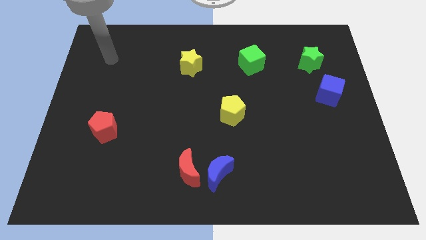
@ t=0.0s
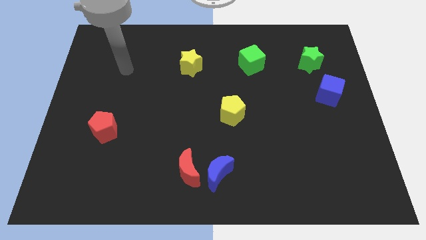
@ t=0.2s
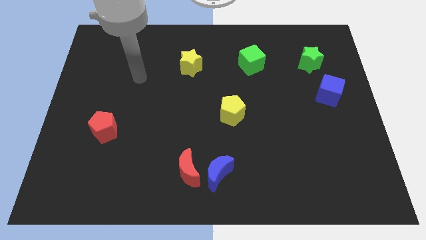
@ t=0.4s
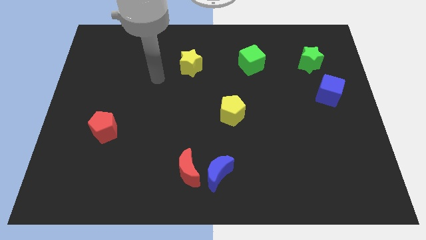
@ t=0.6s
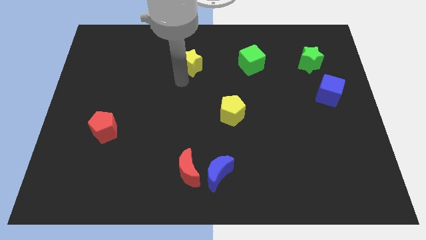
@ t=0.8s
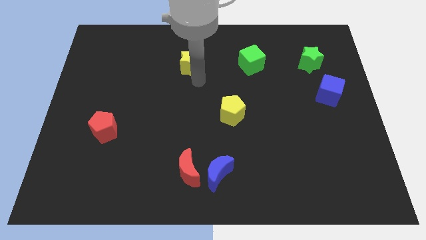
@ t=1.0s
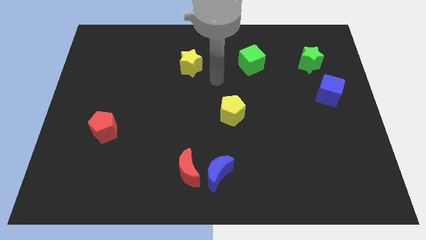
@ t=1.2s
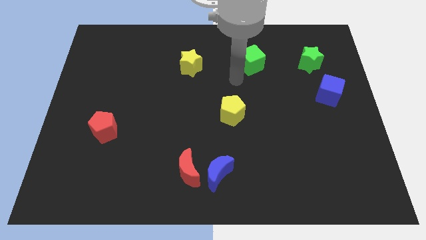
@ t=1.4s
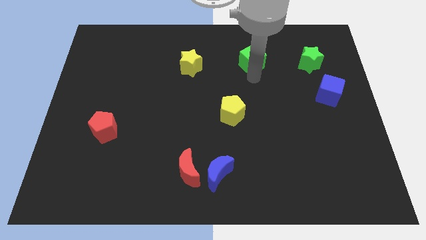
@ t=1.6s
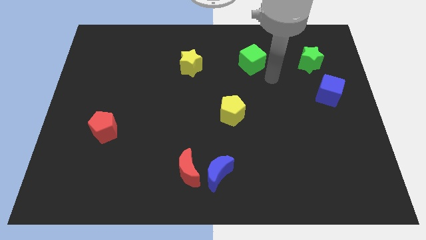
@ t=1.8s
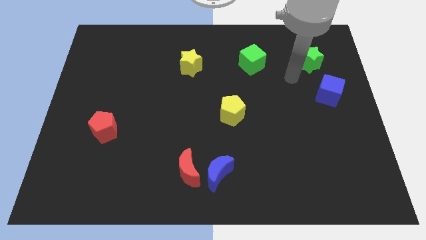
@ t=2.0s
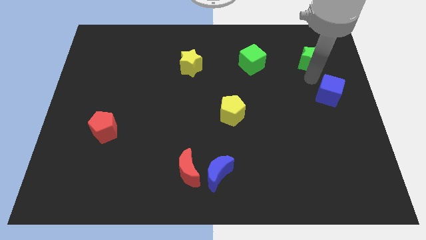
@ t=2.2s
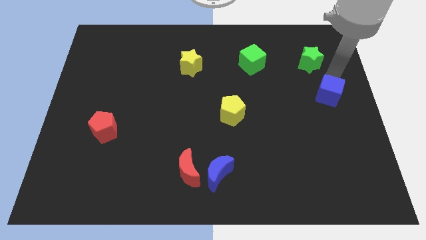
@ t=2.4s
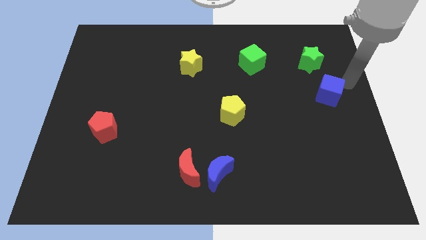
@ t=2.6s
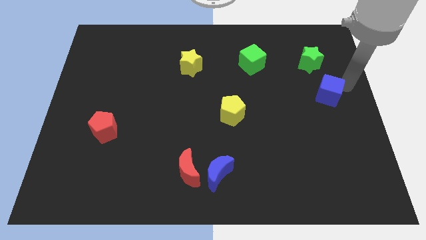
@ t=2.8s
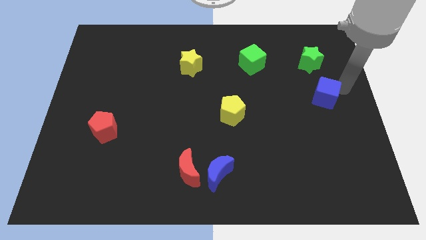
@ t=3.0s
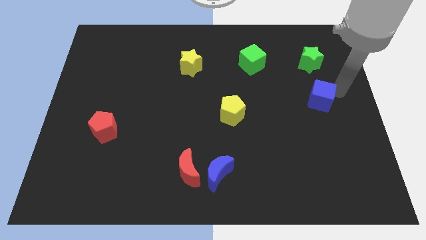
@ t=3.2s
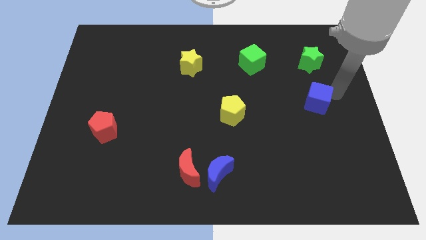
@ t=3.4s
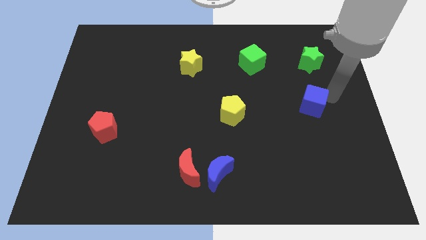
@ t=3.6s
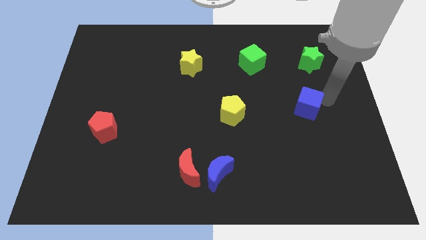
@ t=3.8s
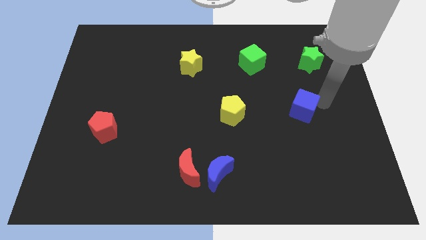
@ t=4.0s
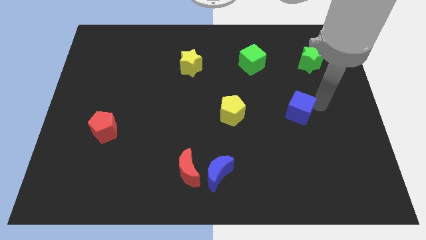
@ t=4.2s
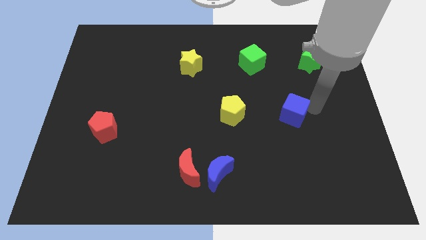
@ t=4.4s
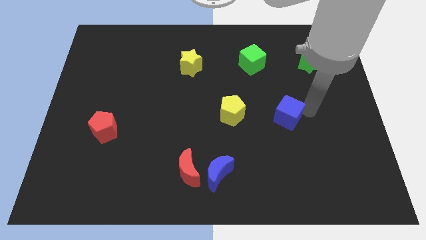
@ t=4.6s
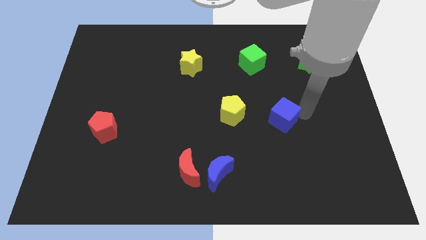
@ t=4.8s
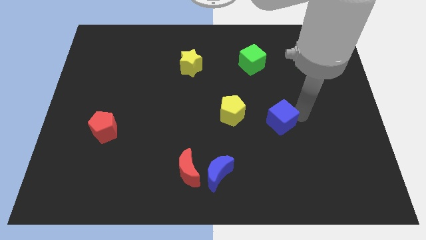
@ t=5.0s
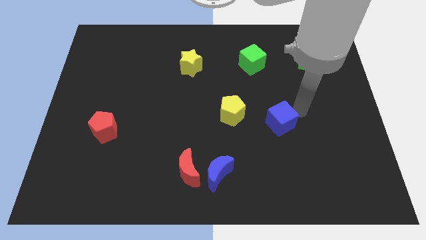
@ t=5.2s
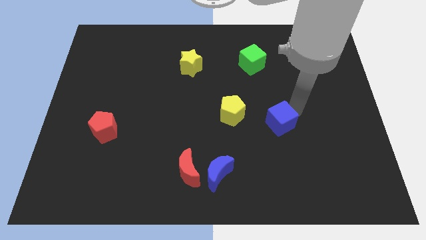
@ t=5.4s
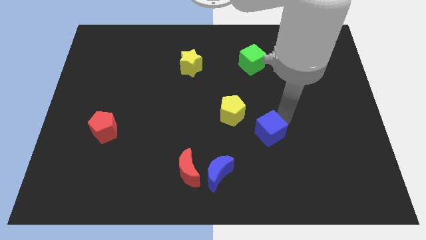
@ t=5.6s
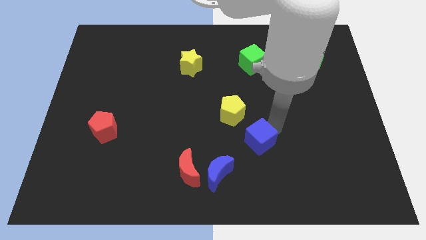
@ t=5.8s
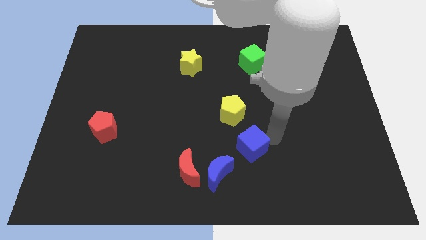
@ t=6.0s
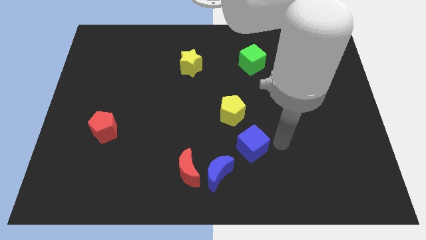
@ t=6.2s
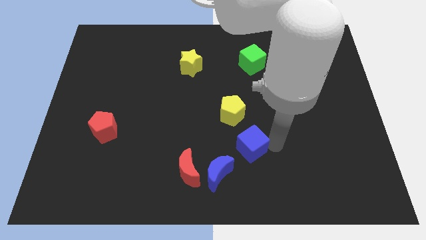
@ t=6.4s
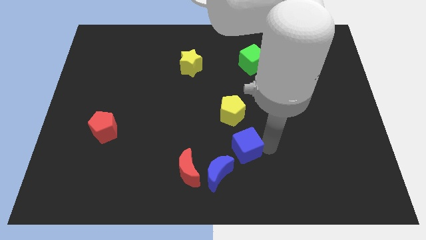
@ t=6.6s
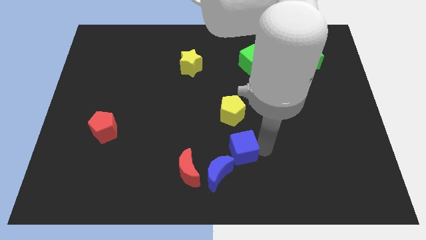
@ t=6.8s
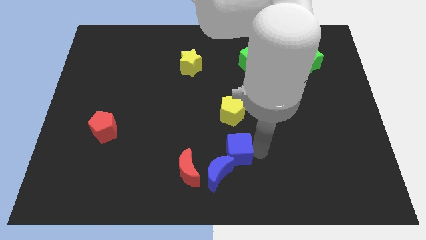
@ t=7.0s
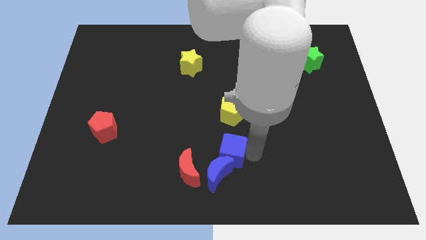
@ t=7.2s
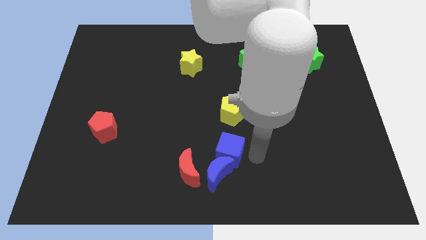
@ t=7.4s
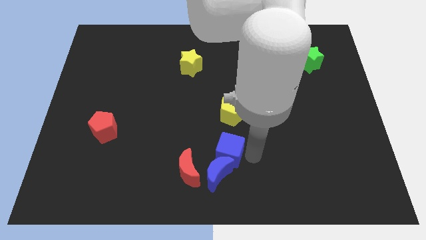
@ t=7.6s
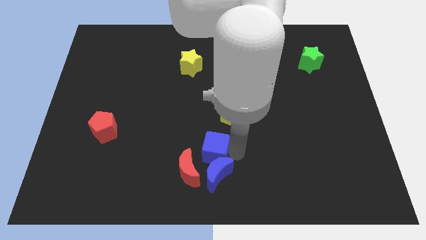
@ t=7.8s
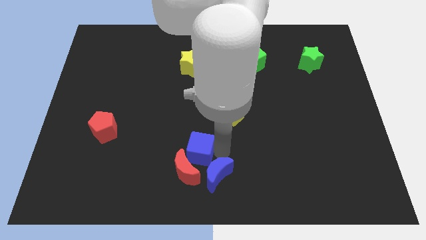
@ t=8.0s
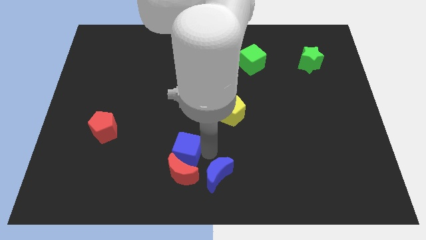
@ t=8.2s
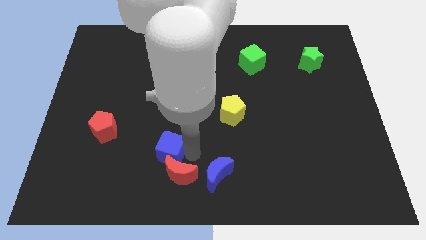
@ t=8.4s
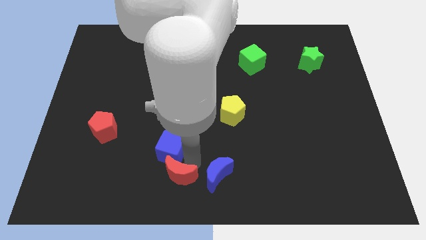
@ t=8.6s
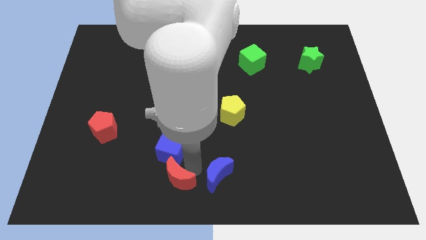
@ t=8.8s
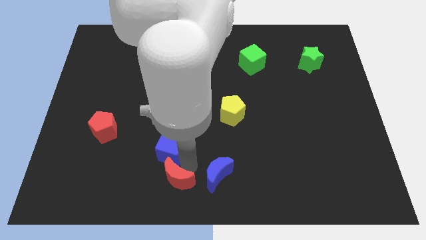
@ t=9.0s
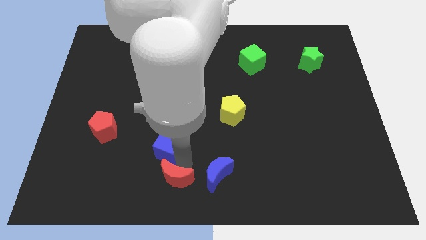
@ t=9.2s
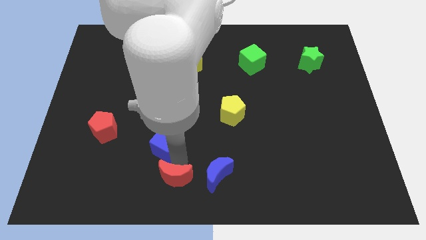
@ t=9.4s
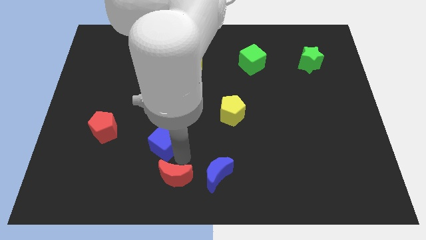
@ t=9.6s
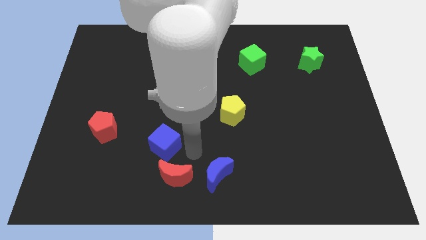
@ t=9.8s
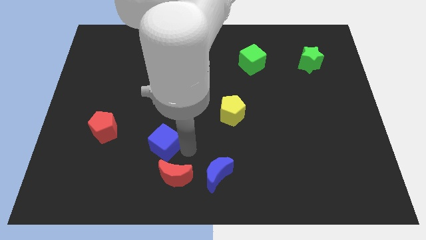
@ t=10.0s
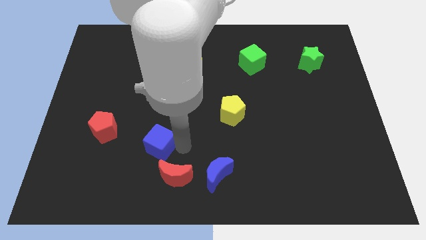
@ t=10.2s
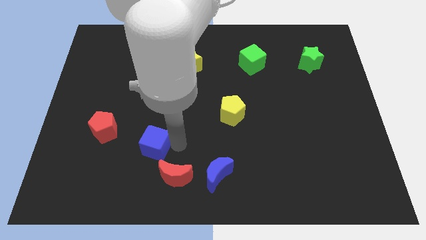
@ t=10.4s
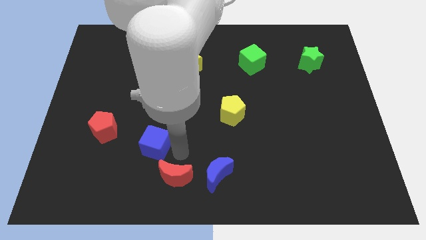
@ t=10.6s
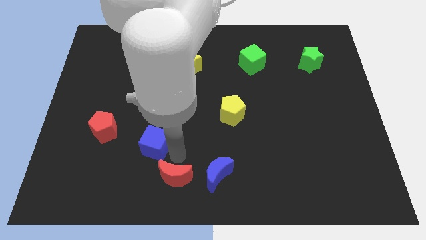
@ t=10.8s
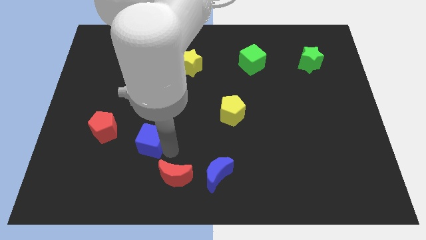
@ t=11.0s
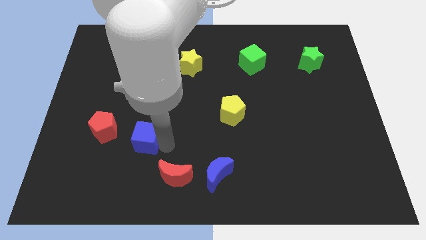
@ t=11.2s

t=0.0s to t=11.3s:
slide the blue cube to the bottom right of the red pentagon

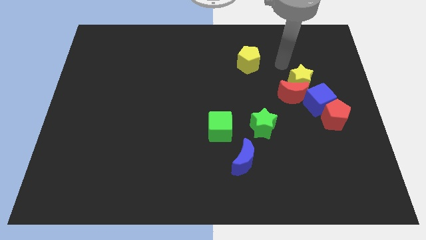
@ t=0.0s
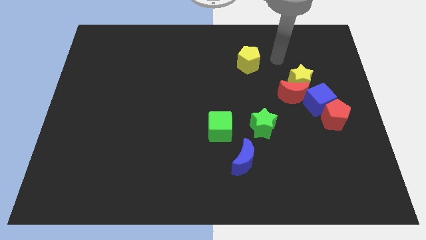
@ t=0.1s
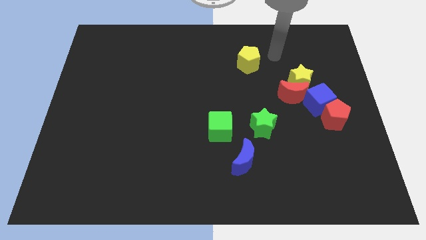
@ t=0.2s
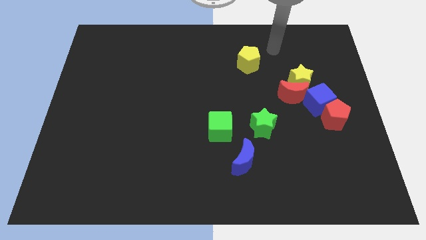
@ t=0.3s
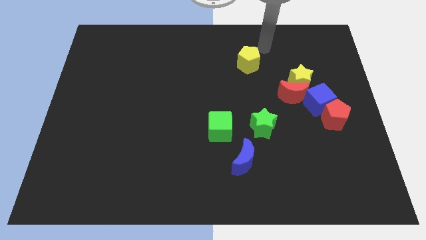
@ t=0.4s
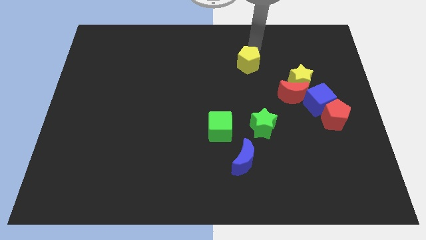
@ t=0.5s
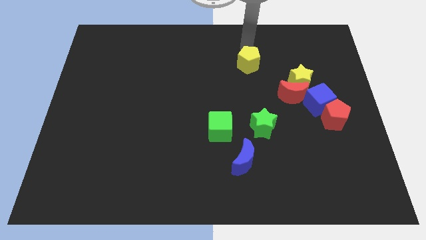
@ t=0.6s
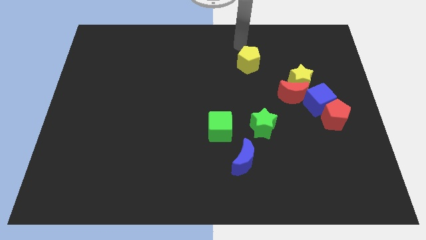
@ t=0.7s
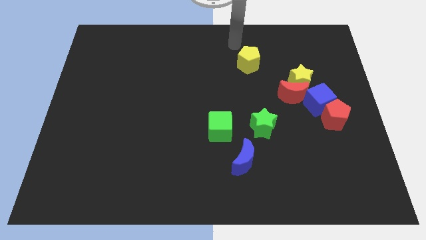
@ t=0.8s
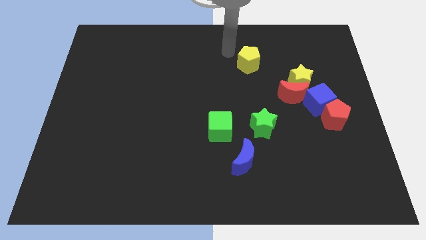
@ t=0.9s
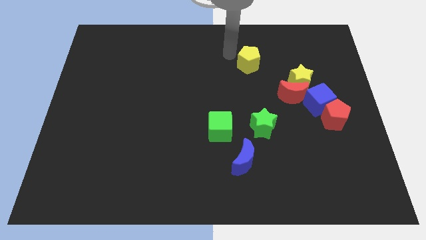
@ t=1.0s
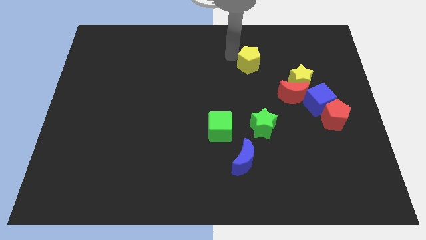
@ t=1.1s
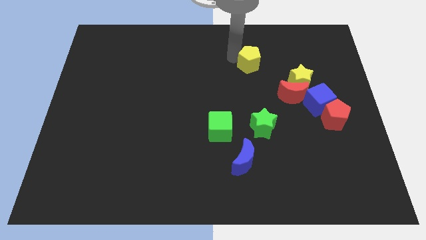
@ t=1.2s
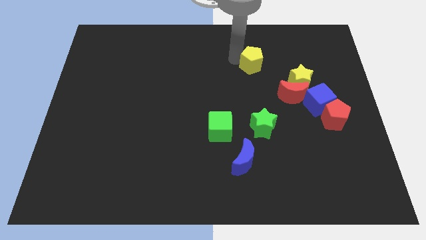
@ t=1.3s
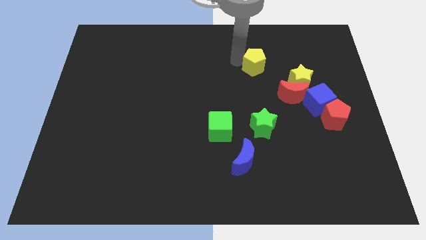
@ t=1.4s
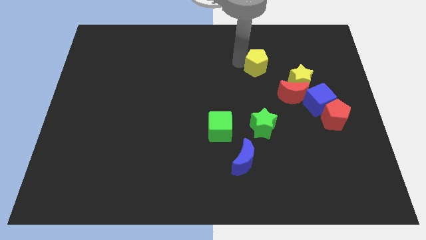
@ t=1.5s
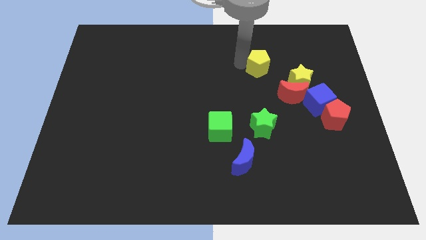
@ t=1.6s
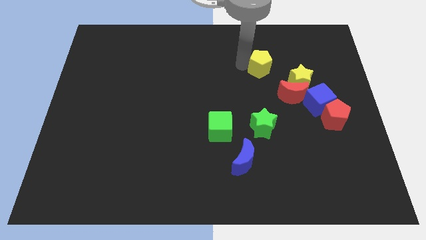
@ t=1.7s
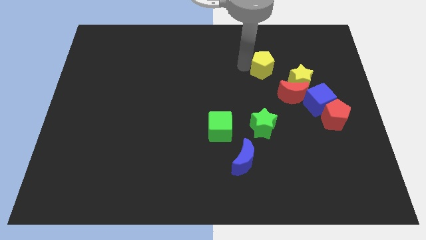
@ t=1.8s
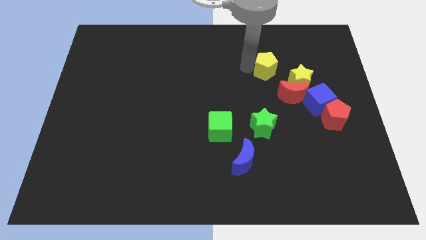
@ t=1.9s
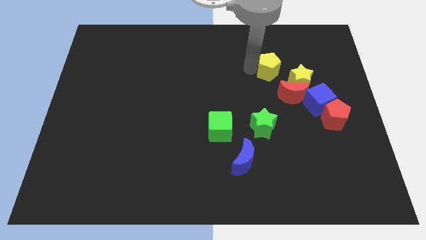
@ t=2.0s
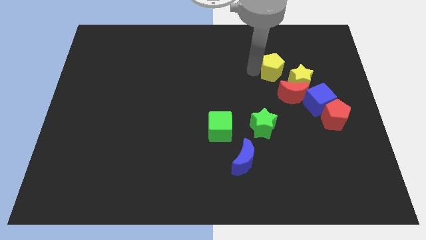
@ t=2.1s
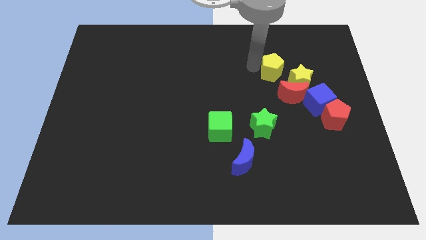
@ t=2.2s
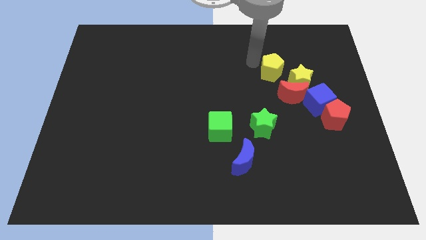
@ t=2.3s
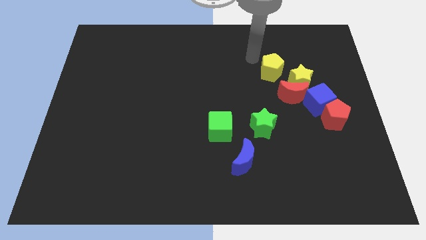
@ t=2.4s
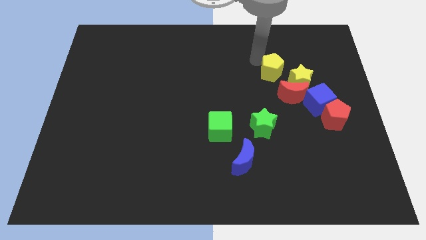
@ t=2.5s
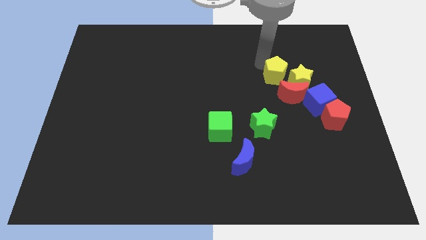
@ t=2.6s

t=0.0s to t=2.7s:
push the yellow pentagon diagonally up and to the left of the blue cube
